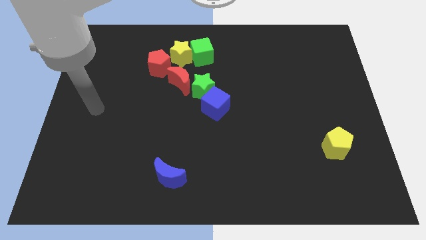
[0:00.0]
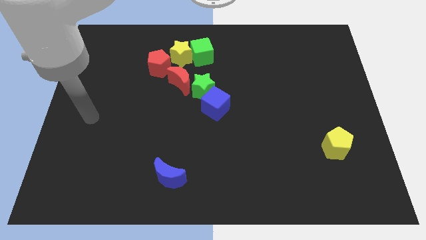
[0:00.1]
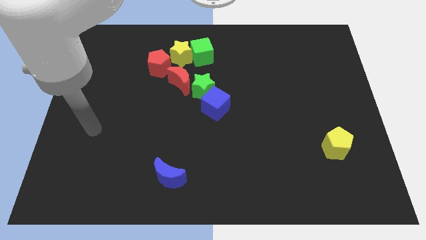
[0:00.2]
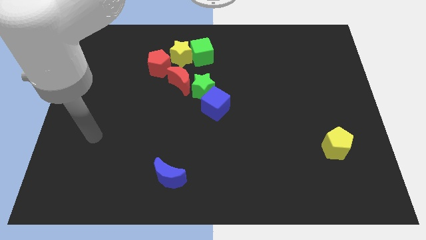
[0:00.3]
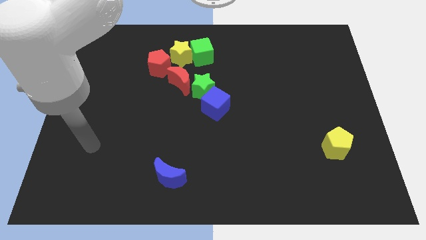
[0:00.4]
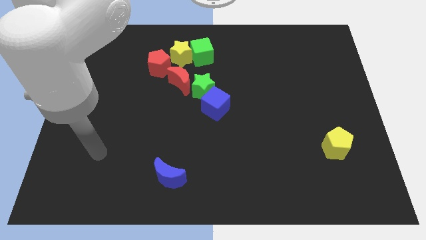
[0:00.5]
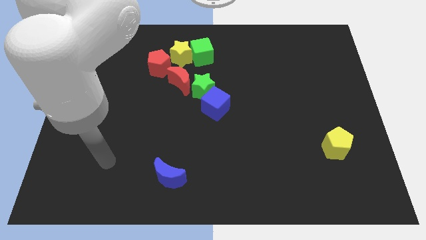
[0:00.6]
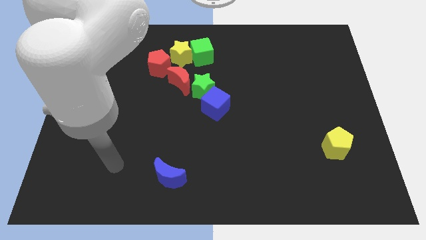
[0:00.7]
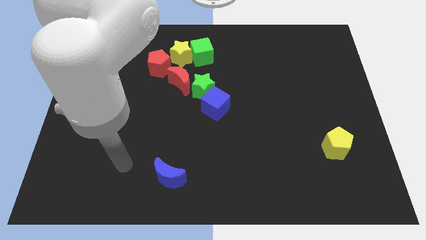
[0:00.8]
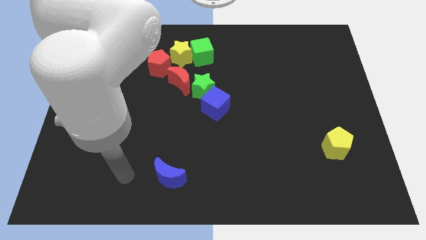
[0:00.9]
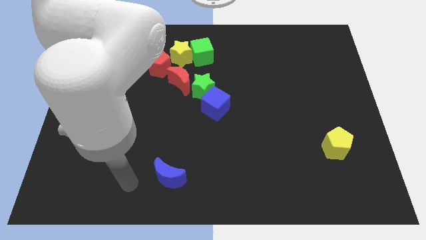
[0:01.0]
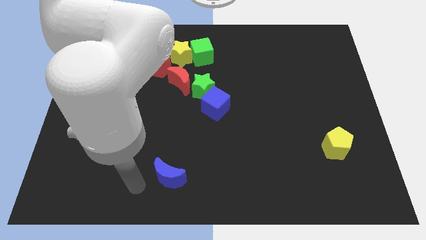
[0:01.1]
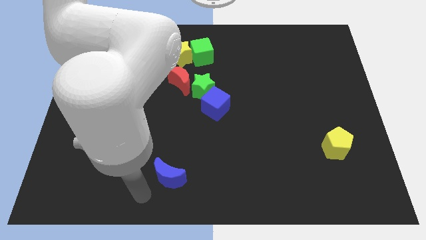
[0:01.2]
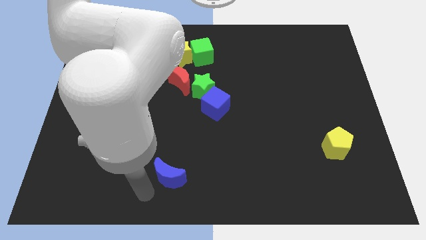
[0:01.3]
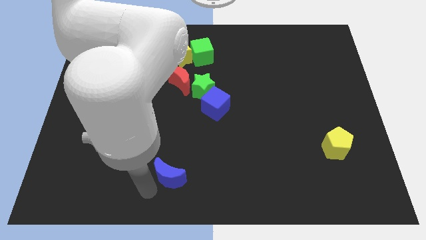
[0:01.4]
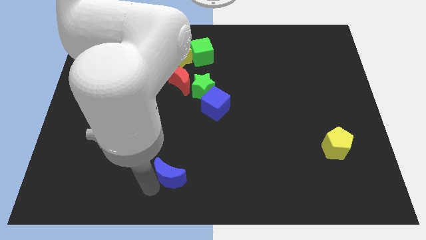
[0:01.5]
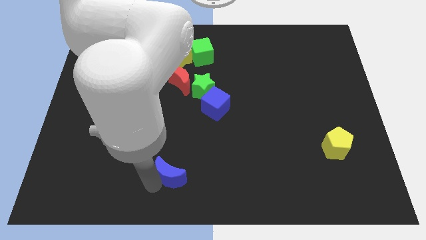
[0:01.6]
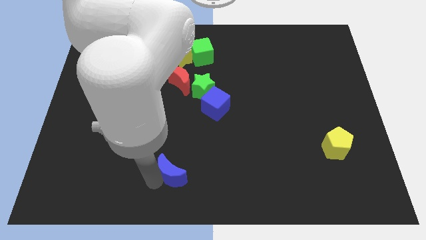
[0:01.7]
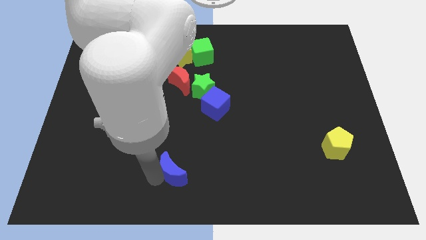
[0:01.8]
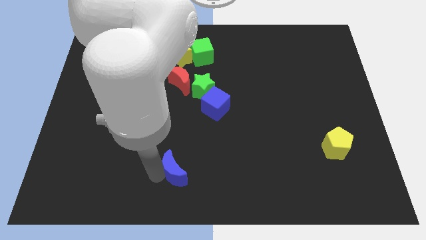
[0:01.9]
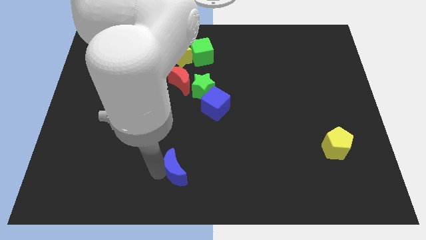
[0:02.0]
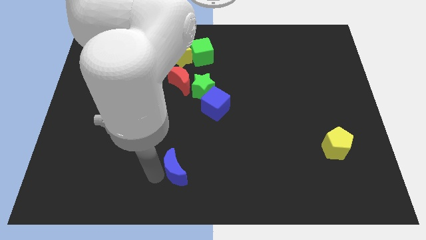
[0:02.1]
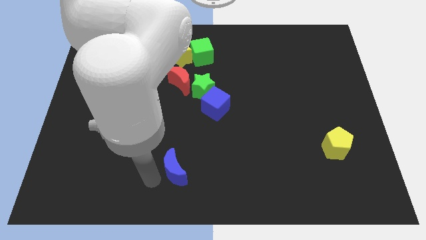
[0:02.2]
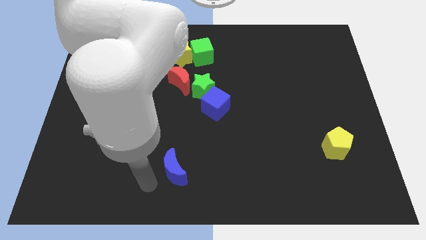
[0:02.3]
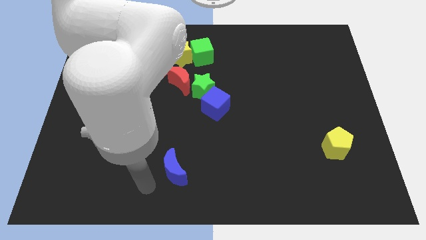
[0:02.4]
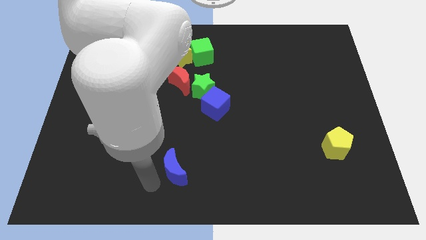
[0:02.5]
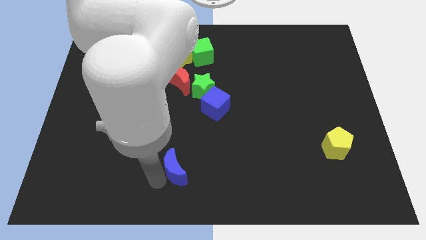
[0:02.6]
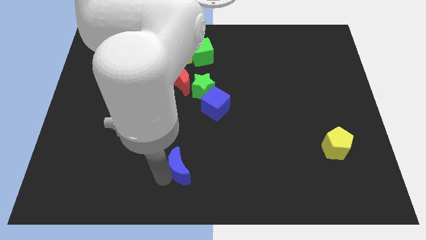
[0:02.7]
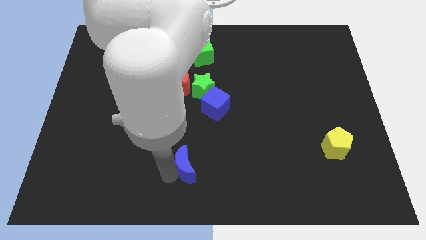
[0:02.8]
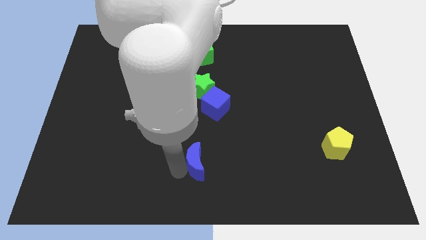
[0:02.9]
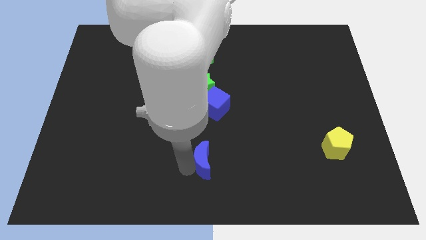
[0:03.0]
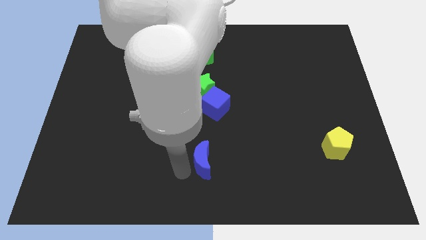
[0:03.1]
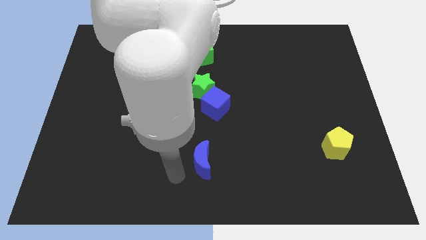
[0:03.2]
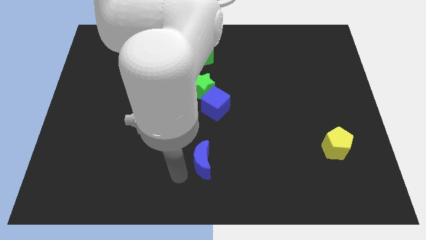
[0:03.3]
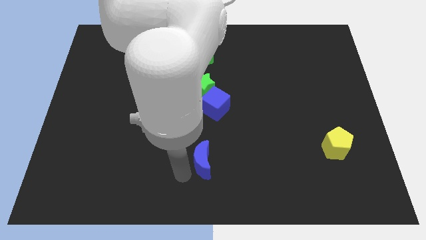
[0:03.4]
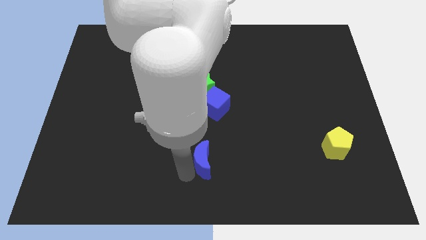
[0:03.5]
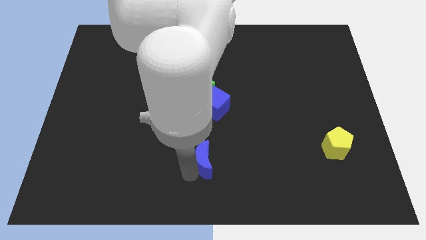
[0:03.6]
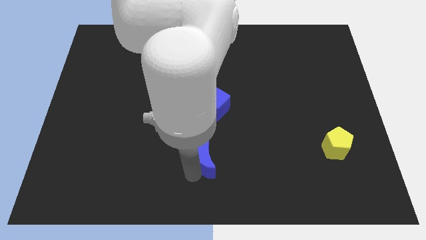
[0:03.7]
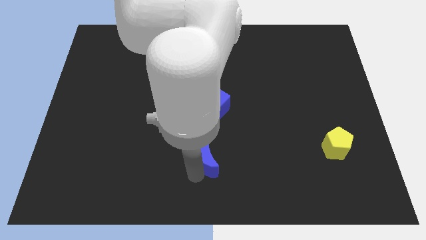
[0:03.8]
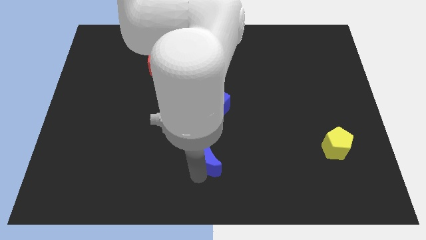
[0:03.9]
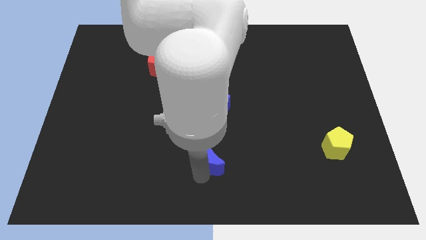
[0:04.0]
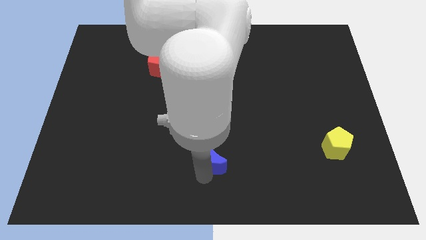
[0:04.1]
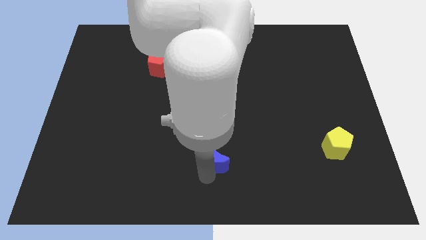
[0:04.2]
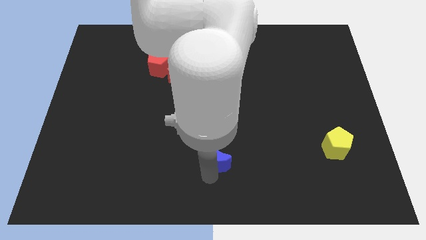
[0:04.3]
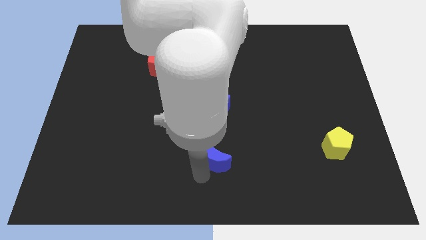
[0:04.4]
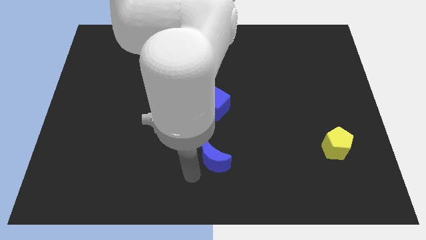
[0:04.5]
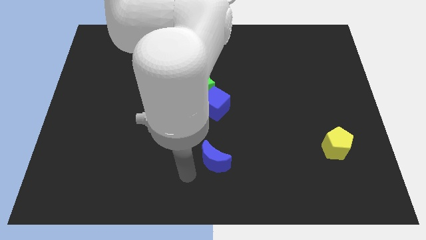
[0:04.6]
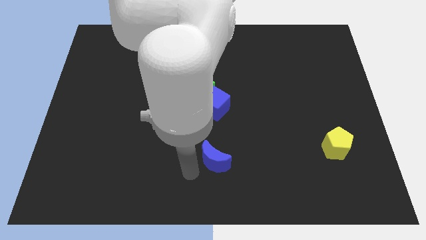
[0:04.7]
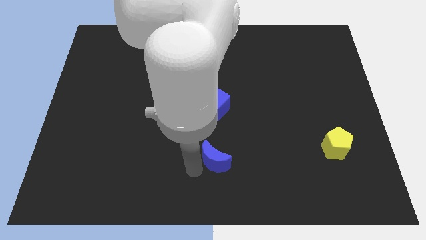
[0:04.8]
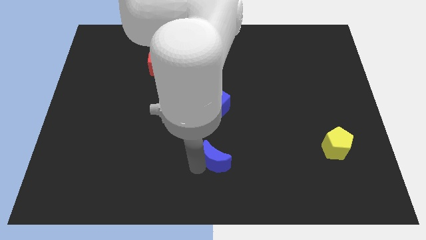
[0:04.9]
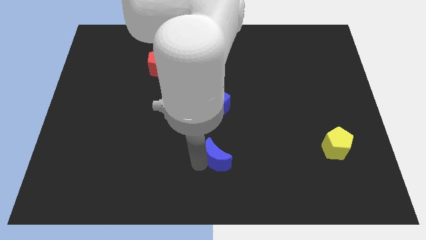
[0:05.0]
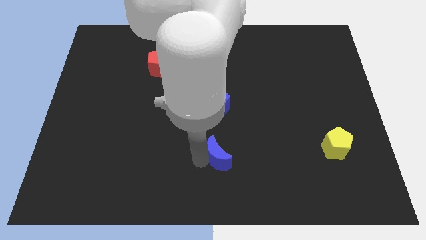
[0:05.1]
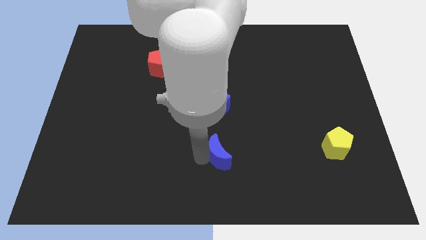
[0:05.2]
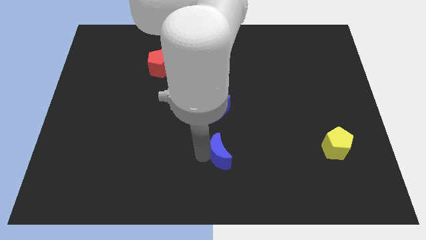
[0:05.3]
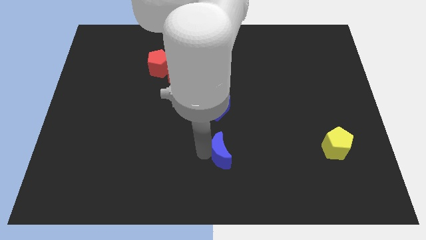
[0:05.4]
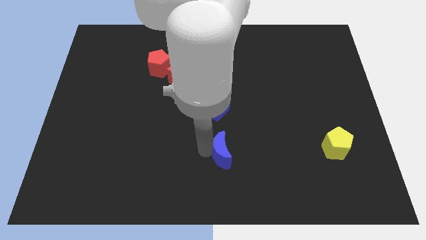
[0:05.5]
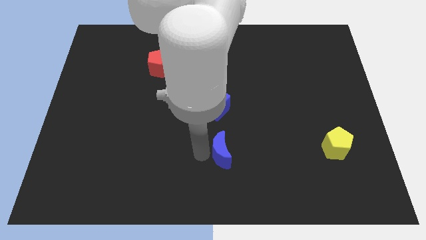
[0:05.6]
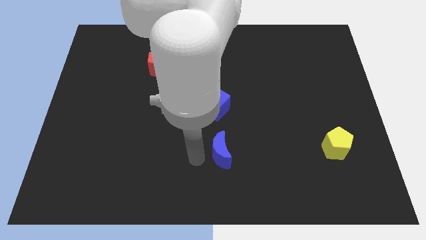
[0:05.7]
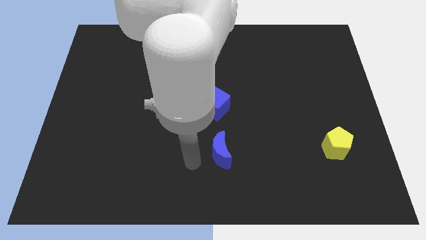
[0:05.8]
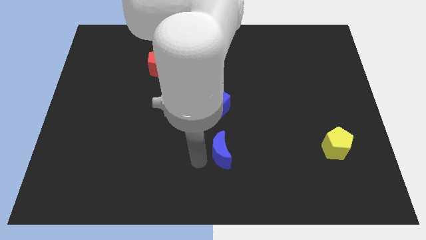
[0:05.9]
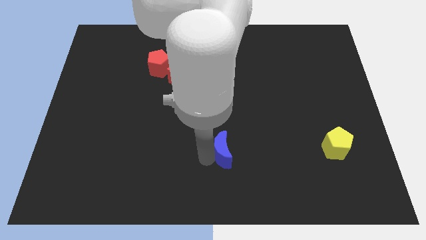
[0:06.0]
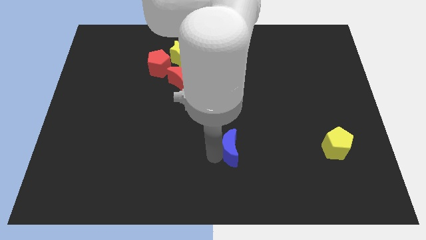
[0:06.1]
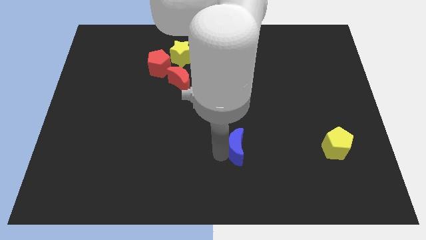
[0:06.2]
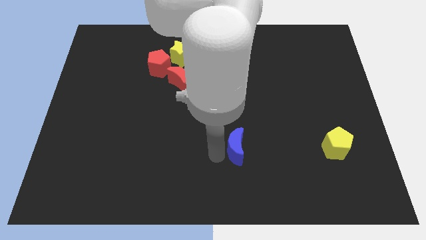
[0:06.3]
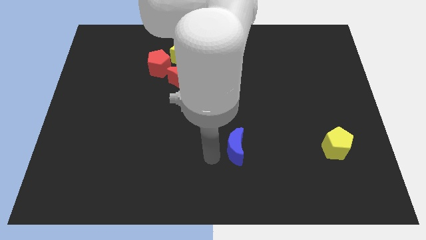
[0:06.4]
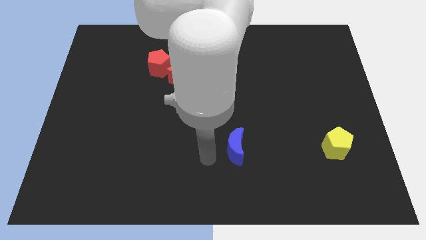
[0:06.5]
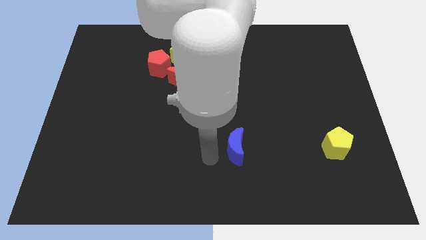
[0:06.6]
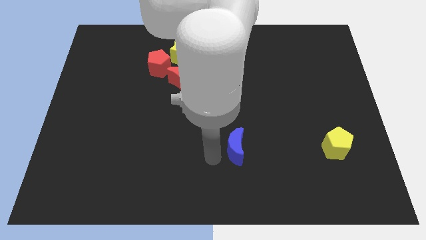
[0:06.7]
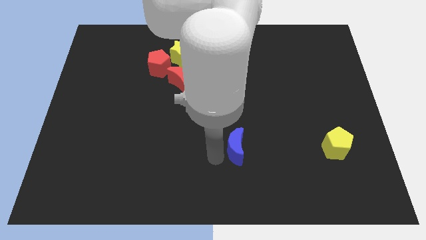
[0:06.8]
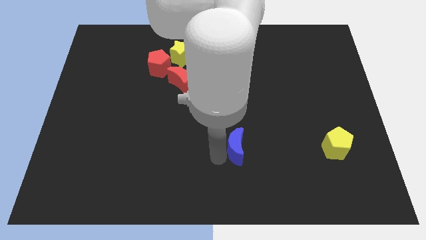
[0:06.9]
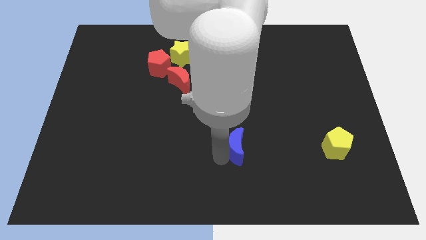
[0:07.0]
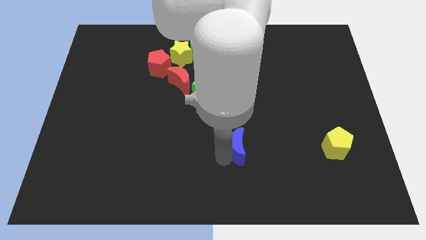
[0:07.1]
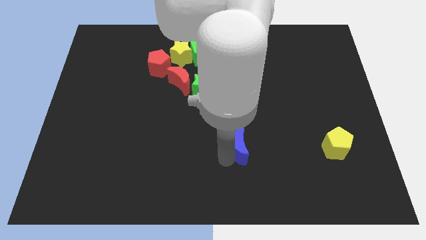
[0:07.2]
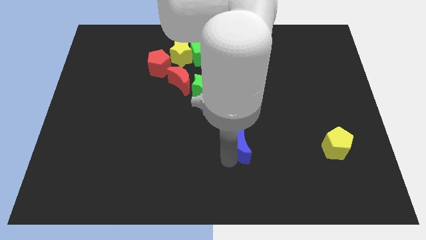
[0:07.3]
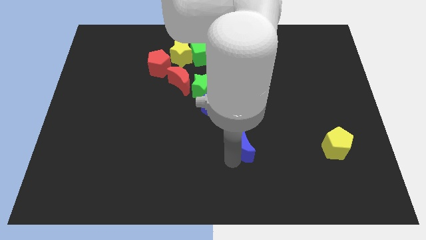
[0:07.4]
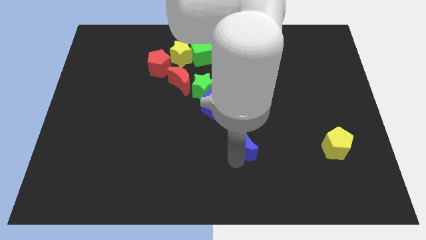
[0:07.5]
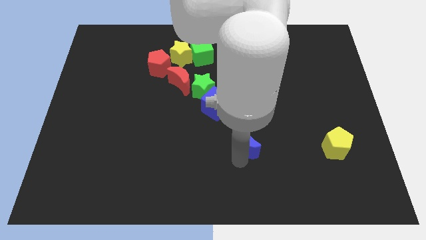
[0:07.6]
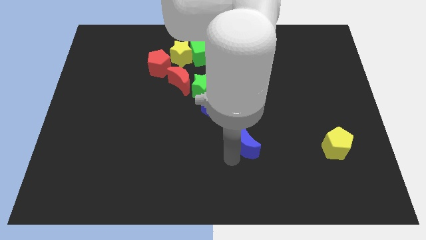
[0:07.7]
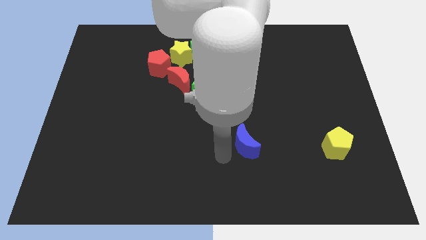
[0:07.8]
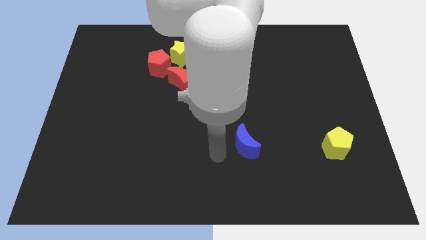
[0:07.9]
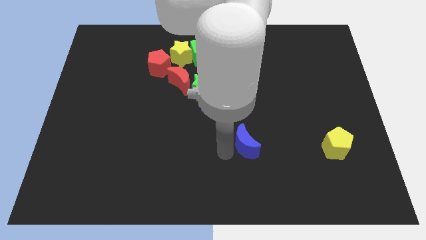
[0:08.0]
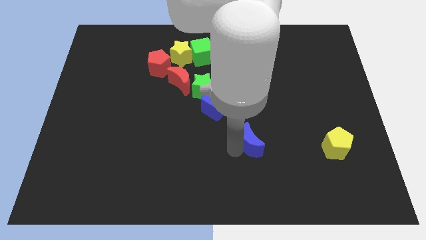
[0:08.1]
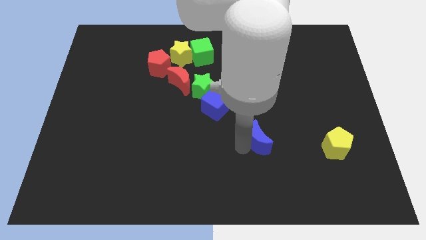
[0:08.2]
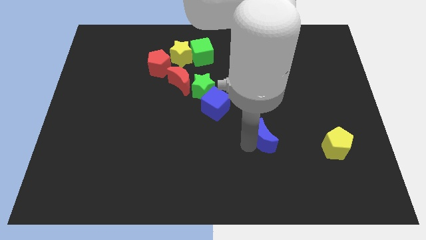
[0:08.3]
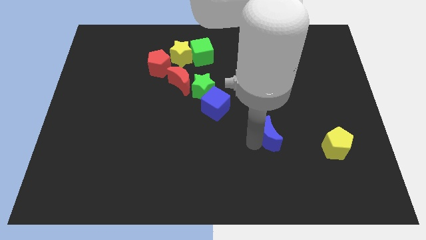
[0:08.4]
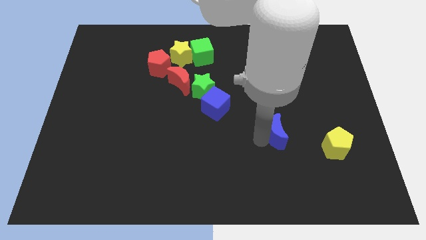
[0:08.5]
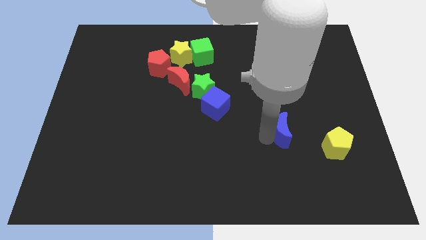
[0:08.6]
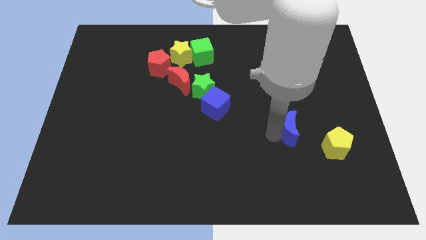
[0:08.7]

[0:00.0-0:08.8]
push the blue moon to the top left of the yellow pentagon
